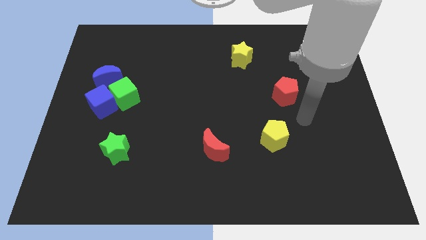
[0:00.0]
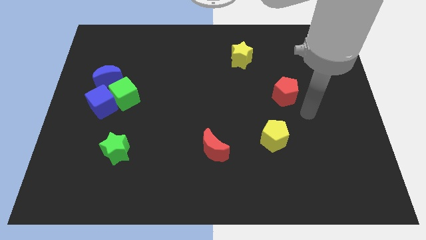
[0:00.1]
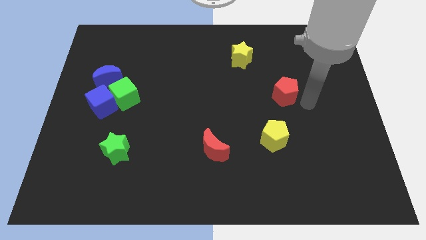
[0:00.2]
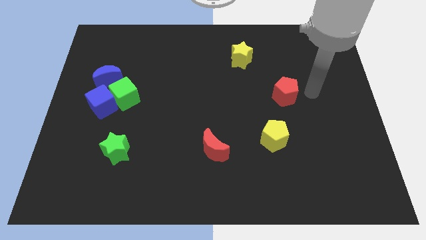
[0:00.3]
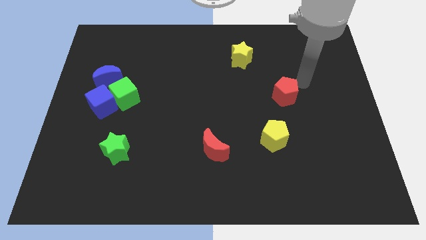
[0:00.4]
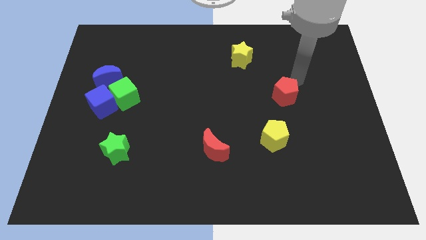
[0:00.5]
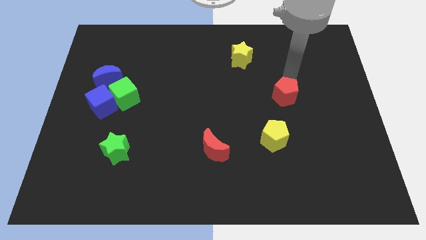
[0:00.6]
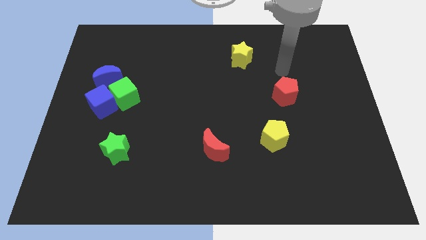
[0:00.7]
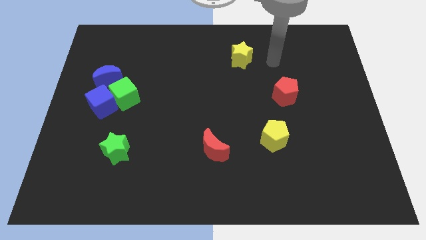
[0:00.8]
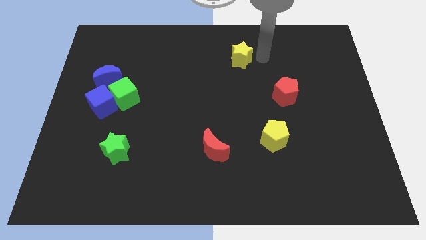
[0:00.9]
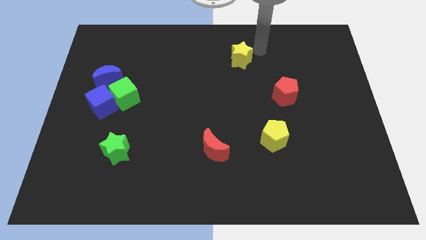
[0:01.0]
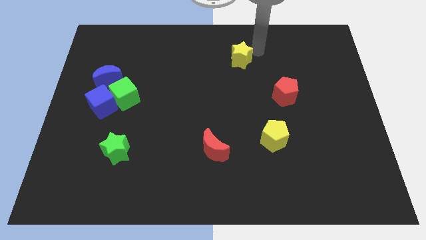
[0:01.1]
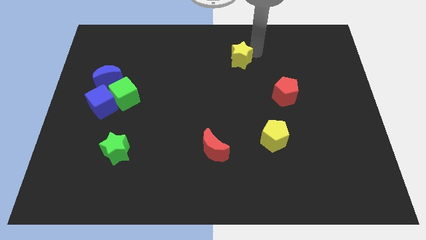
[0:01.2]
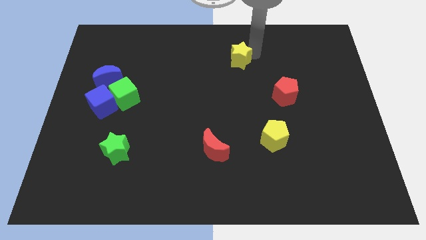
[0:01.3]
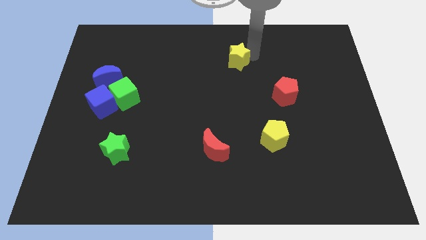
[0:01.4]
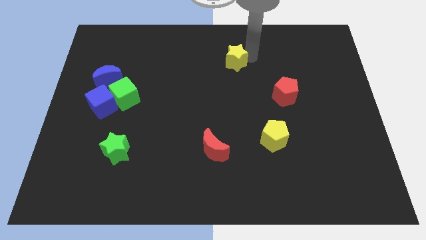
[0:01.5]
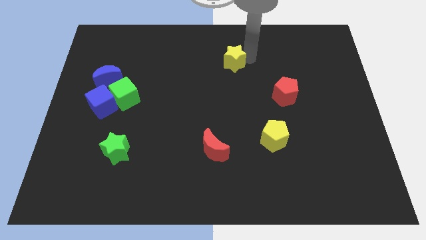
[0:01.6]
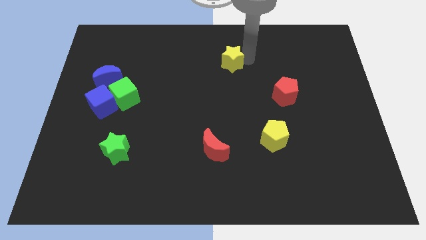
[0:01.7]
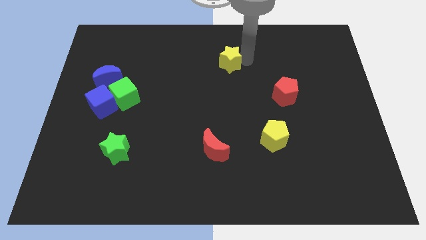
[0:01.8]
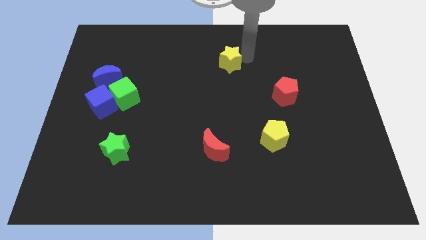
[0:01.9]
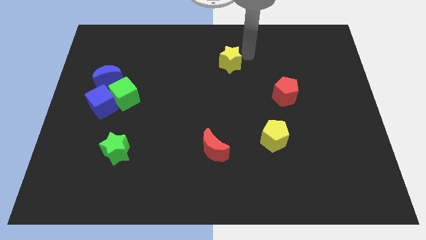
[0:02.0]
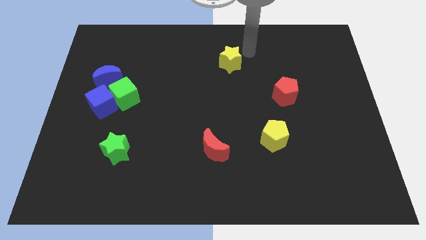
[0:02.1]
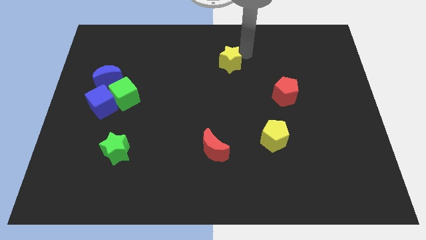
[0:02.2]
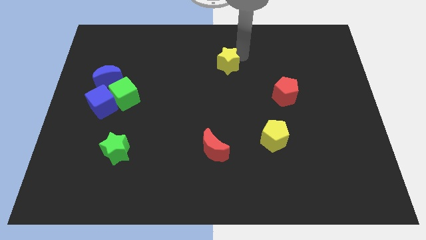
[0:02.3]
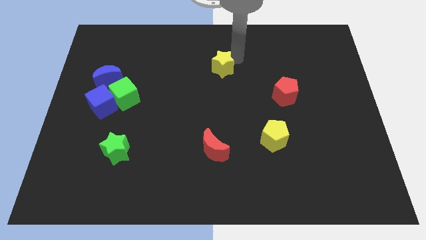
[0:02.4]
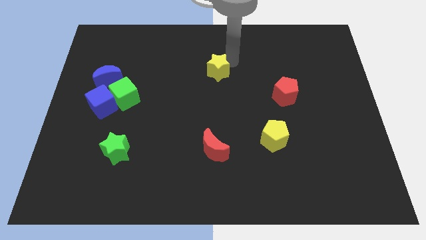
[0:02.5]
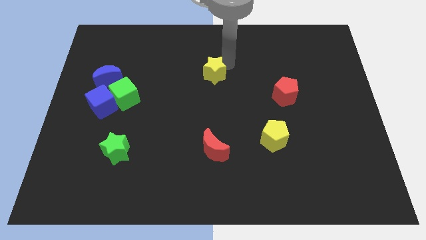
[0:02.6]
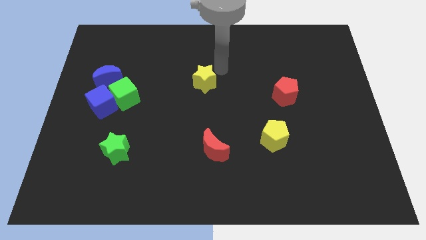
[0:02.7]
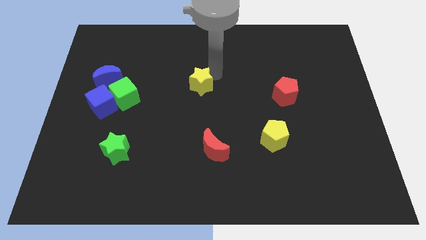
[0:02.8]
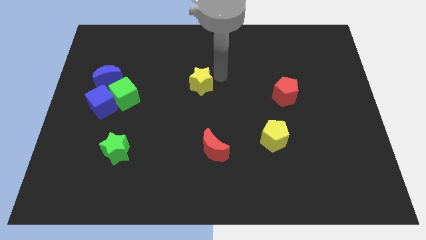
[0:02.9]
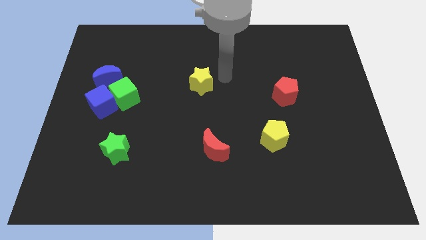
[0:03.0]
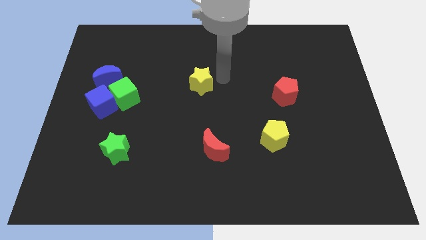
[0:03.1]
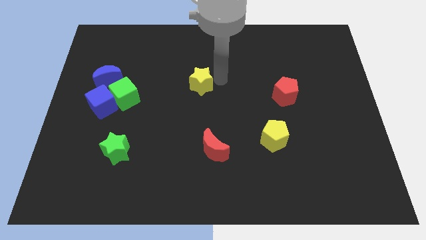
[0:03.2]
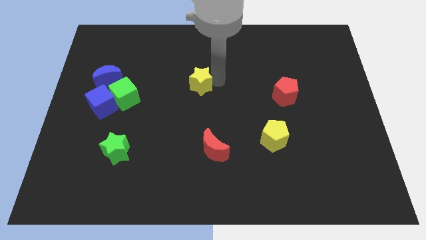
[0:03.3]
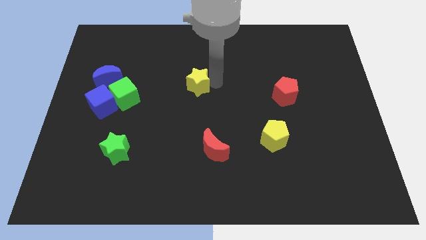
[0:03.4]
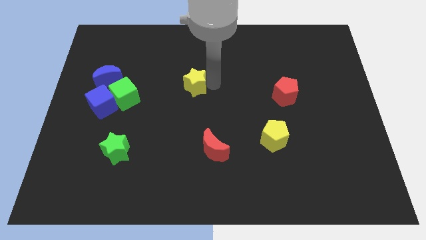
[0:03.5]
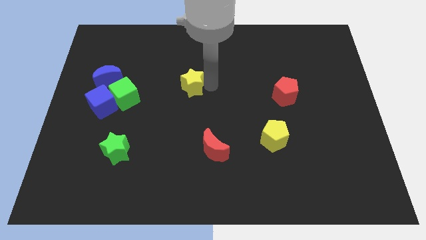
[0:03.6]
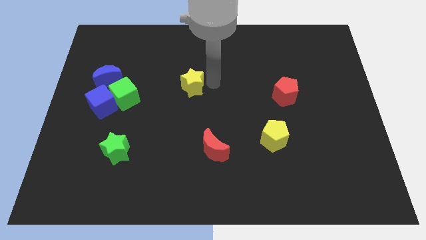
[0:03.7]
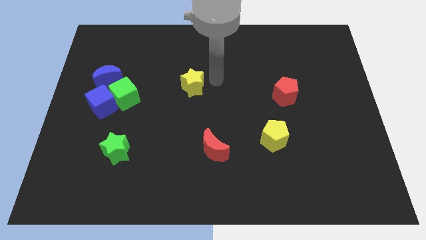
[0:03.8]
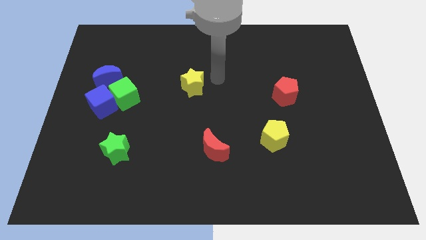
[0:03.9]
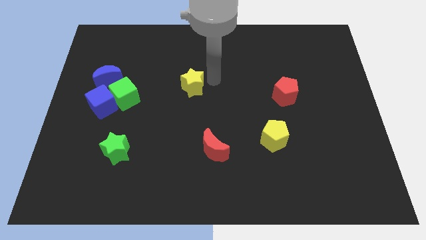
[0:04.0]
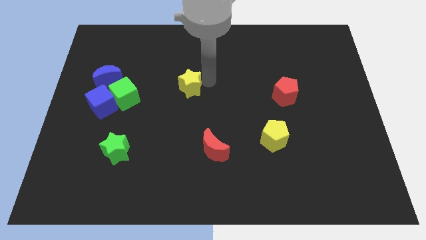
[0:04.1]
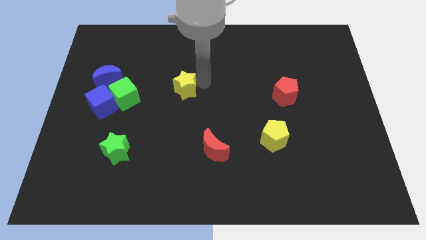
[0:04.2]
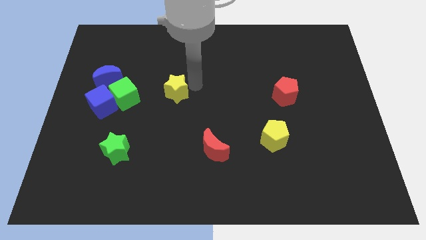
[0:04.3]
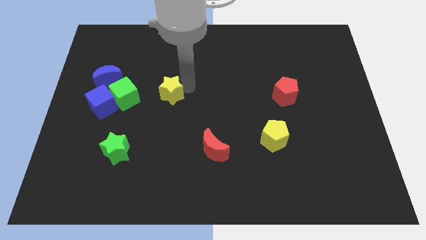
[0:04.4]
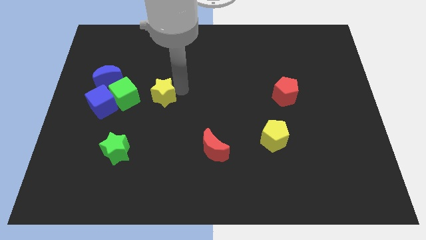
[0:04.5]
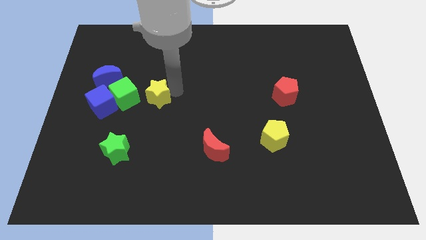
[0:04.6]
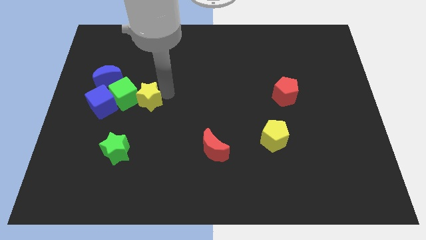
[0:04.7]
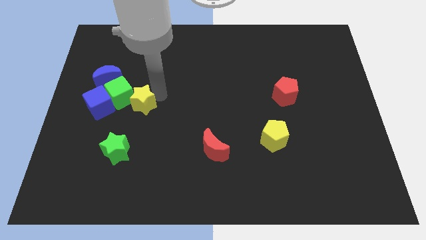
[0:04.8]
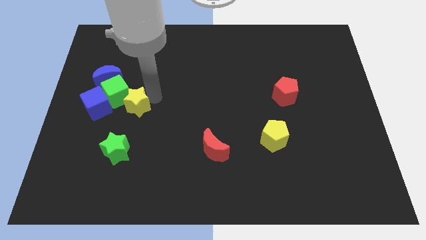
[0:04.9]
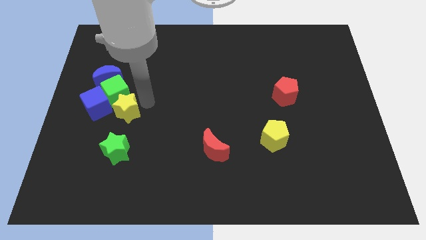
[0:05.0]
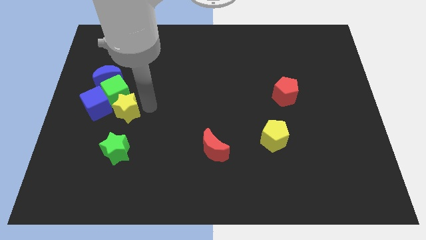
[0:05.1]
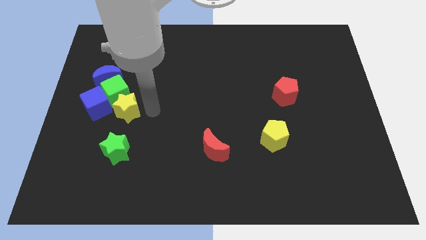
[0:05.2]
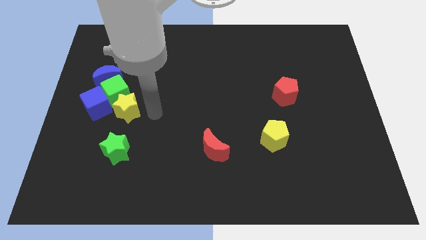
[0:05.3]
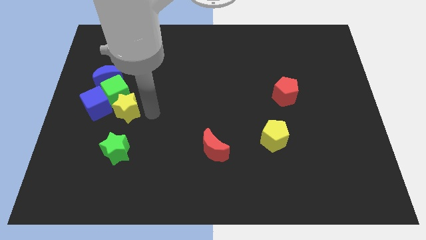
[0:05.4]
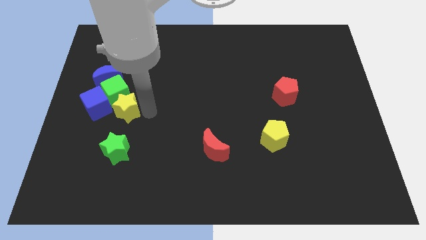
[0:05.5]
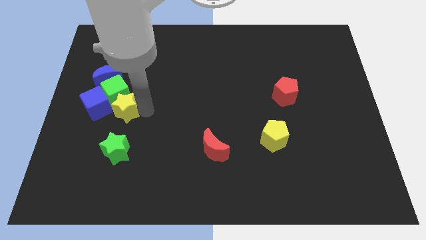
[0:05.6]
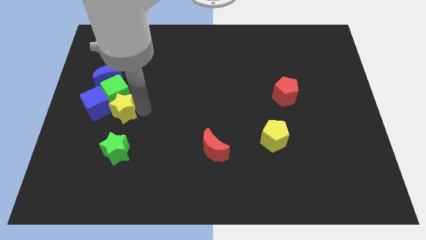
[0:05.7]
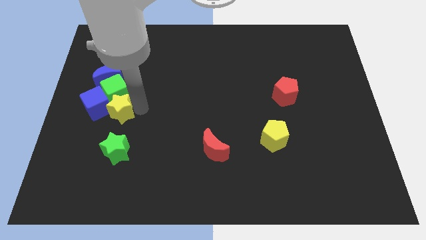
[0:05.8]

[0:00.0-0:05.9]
put the yellow star close to the blue cube

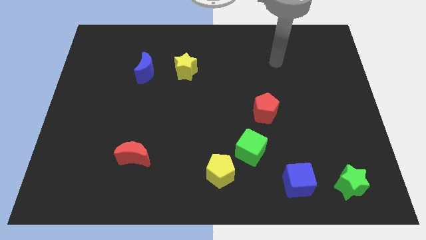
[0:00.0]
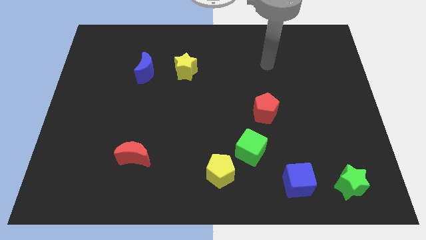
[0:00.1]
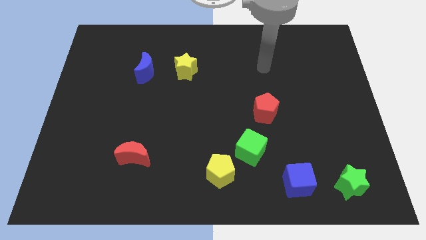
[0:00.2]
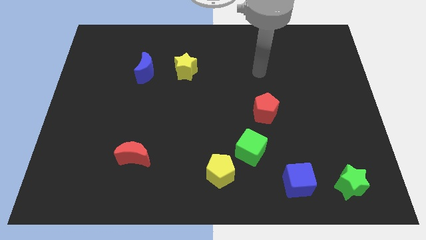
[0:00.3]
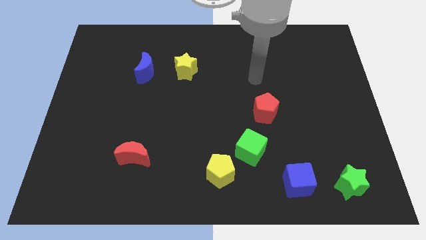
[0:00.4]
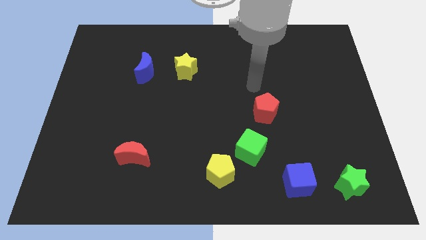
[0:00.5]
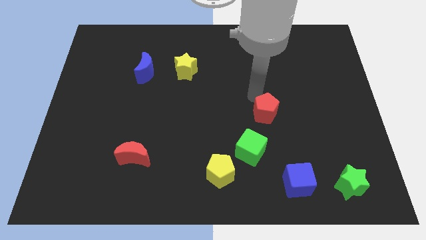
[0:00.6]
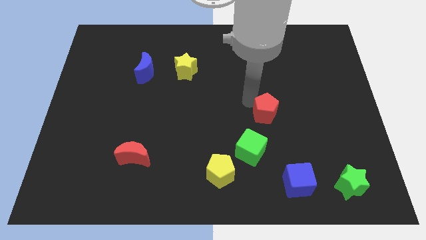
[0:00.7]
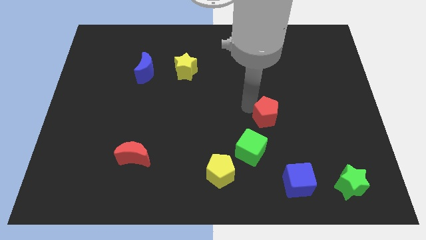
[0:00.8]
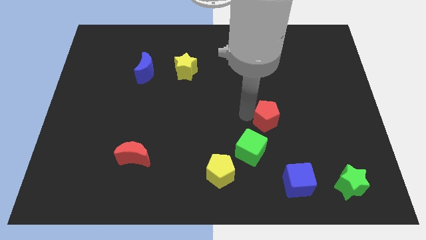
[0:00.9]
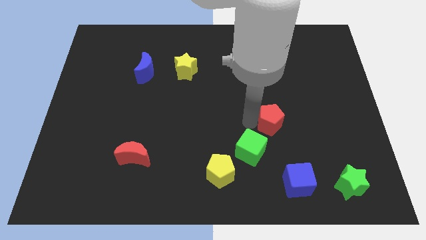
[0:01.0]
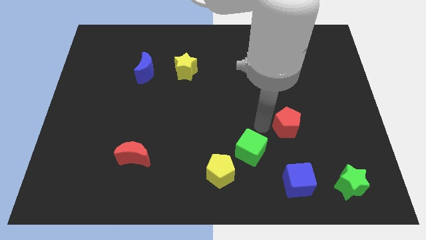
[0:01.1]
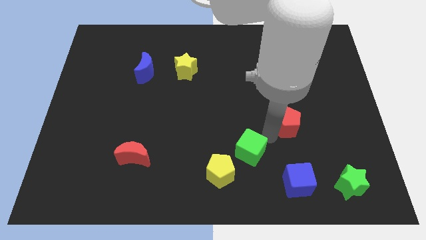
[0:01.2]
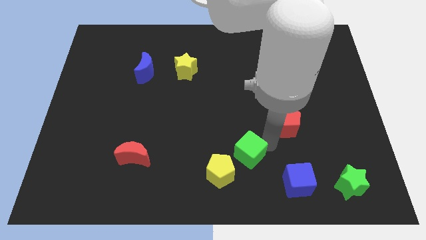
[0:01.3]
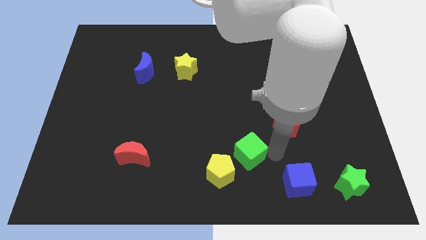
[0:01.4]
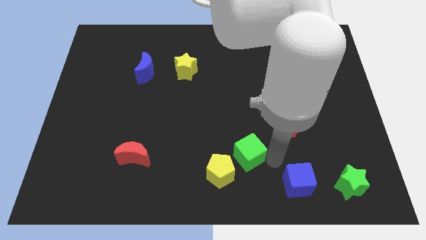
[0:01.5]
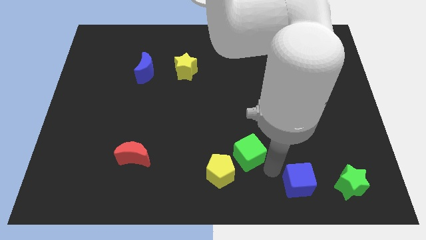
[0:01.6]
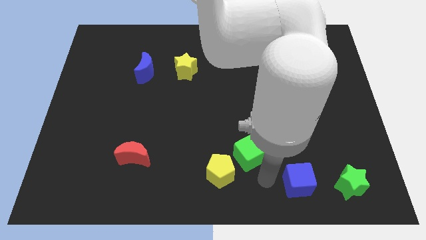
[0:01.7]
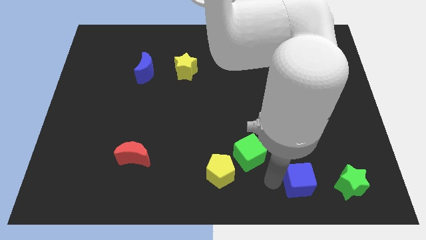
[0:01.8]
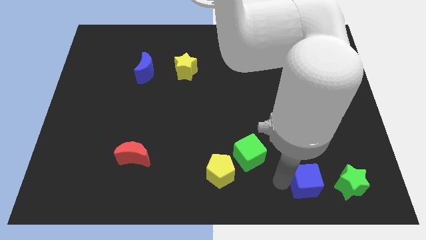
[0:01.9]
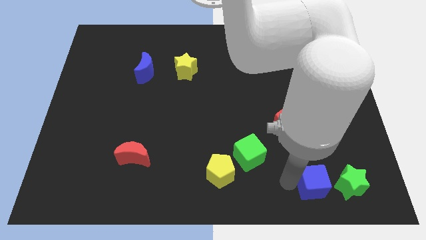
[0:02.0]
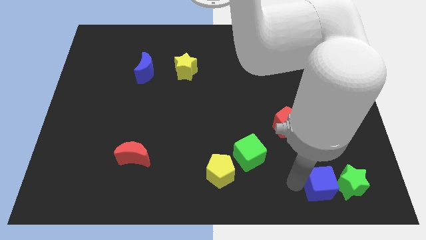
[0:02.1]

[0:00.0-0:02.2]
put the blue cube close to the green star
